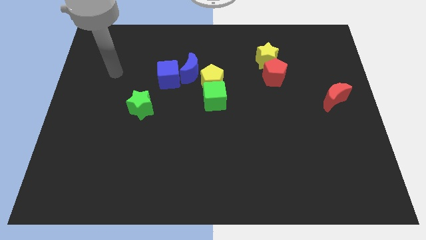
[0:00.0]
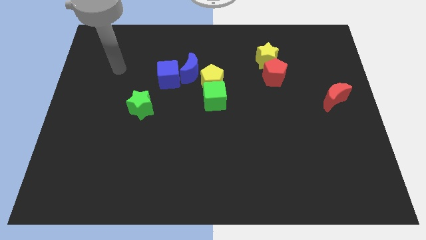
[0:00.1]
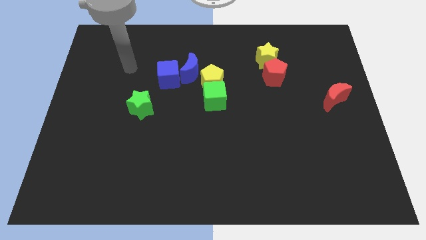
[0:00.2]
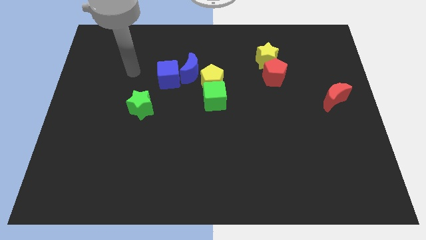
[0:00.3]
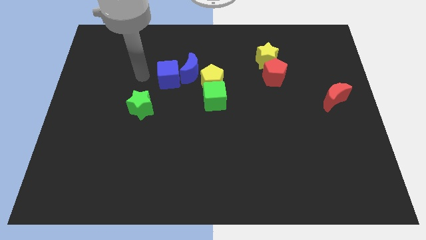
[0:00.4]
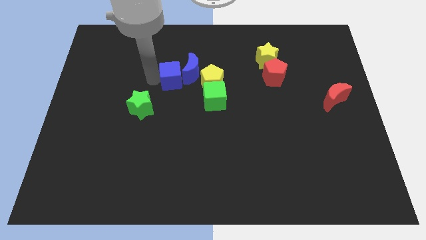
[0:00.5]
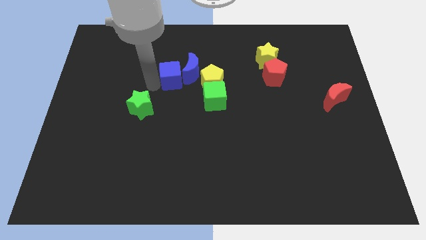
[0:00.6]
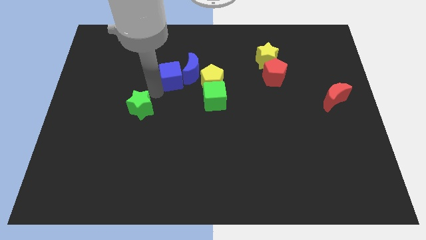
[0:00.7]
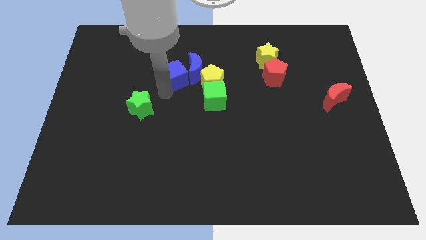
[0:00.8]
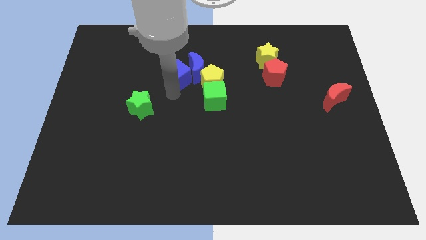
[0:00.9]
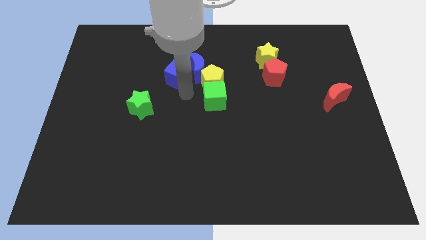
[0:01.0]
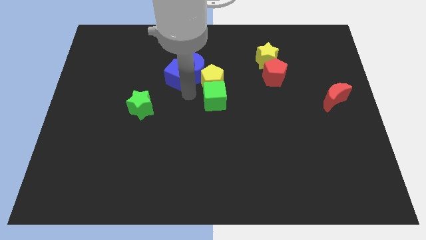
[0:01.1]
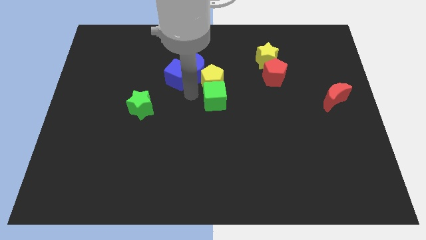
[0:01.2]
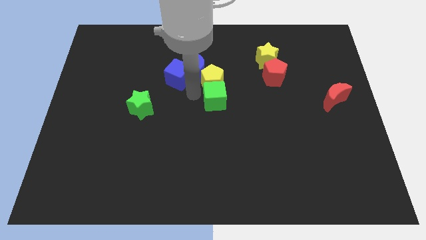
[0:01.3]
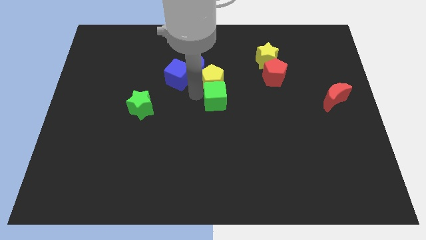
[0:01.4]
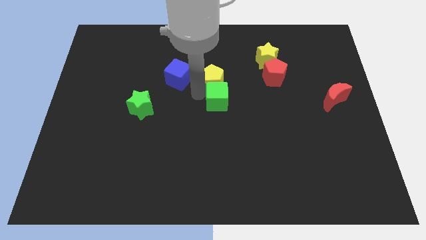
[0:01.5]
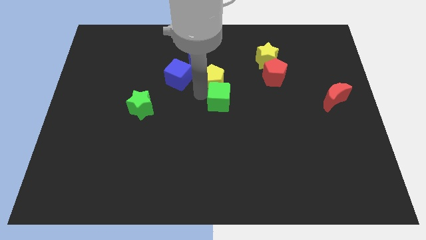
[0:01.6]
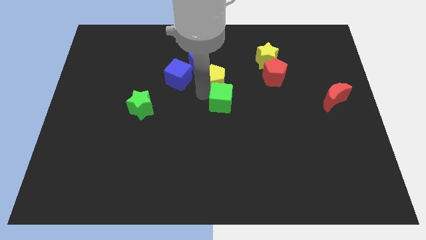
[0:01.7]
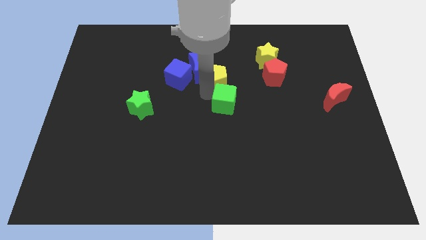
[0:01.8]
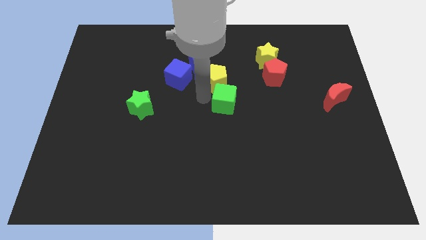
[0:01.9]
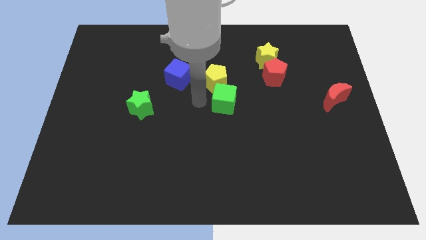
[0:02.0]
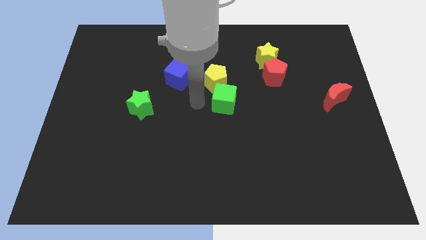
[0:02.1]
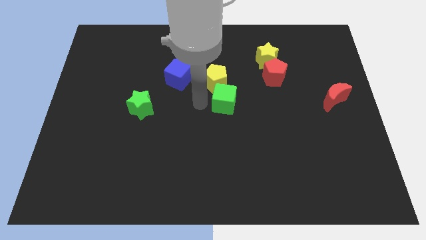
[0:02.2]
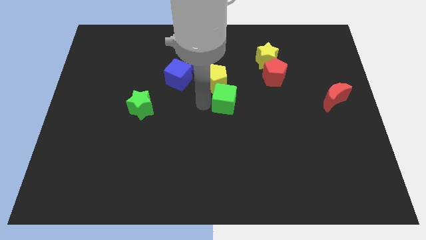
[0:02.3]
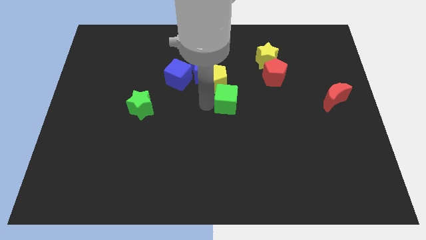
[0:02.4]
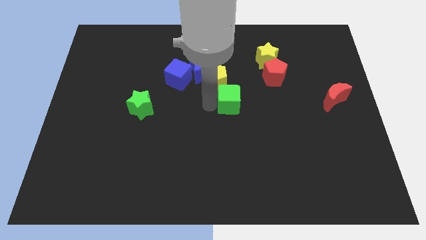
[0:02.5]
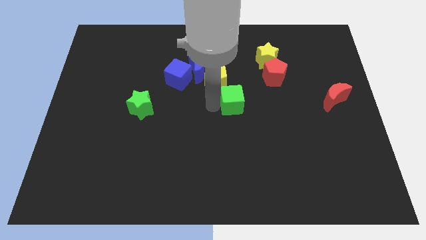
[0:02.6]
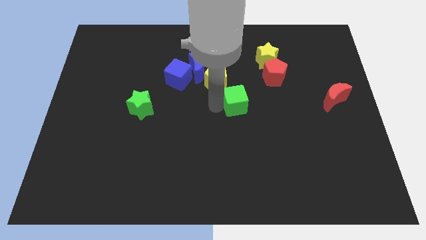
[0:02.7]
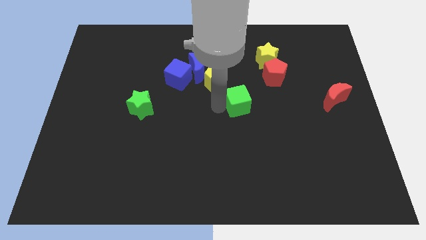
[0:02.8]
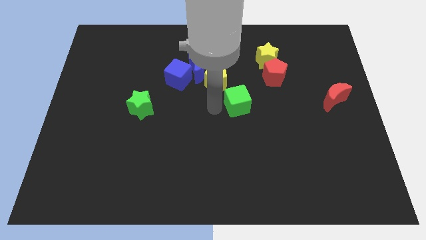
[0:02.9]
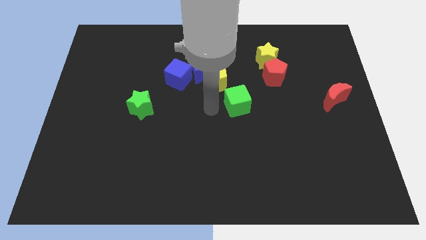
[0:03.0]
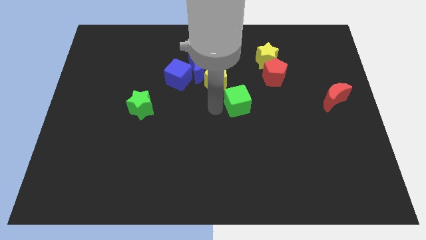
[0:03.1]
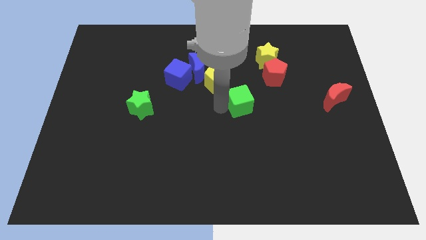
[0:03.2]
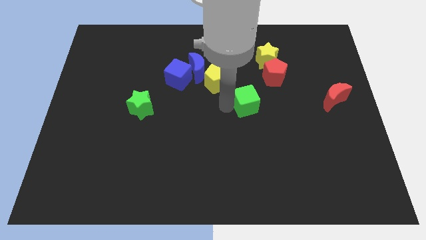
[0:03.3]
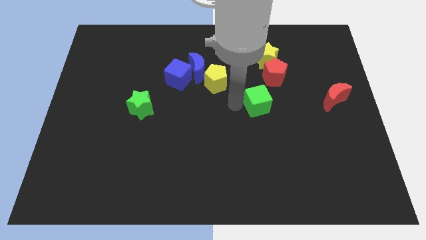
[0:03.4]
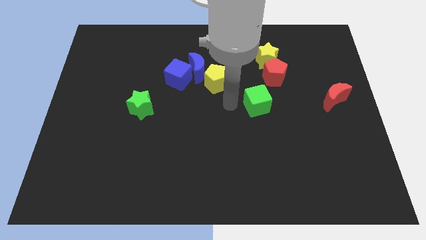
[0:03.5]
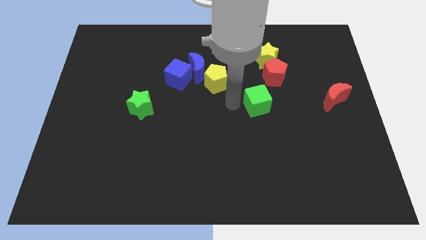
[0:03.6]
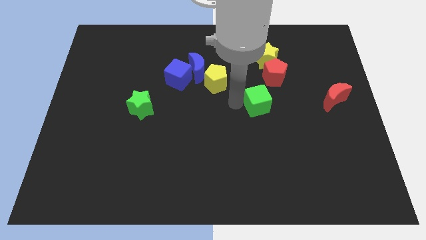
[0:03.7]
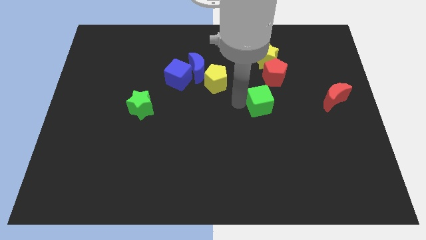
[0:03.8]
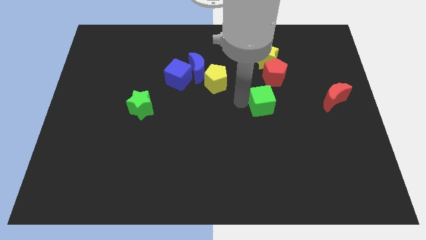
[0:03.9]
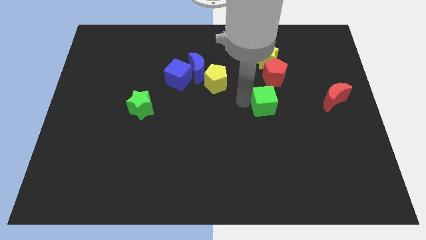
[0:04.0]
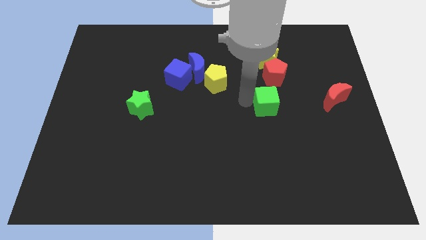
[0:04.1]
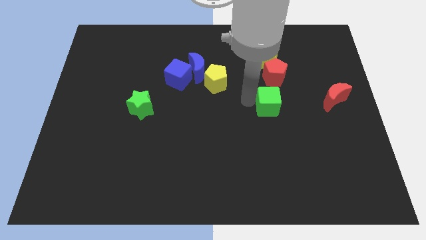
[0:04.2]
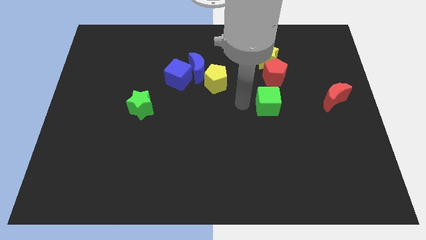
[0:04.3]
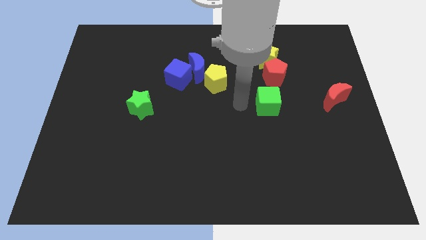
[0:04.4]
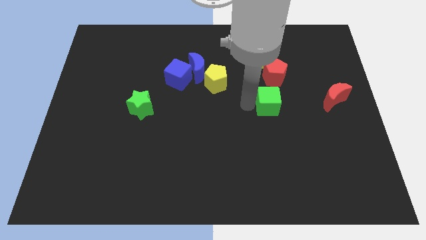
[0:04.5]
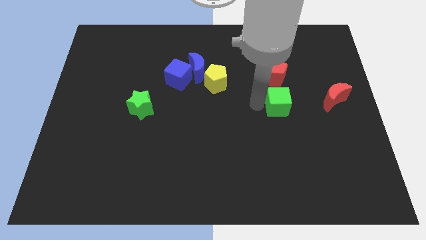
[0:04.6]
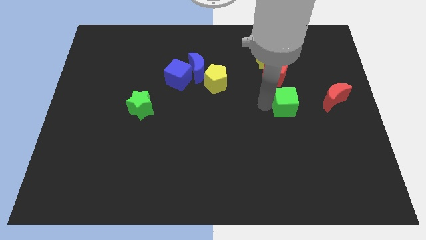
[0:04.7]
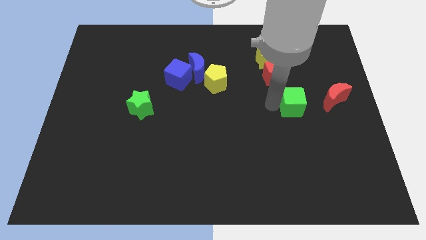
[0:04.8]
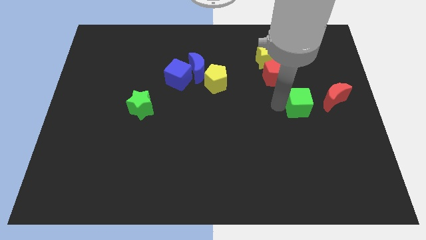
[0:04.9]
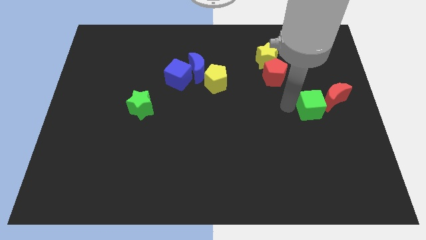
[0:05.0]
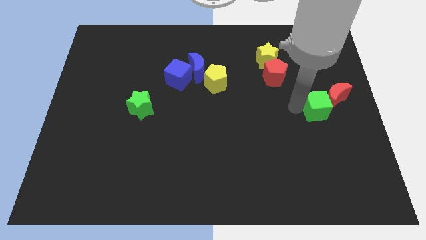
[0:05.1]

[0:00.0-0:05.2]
push the green cube towards the red moon

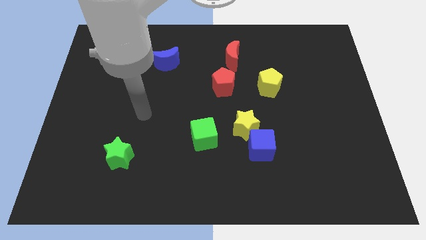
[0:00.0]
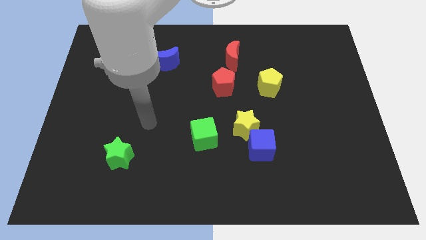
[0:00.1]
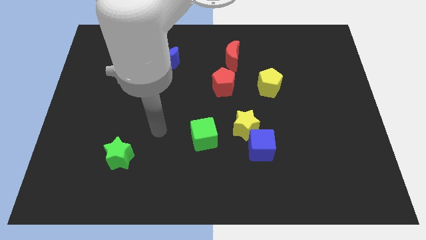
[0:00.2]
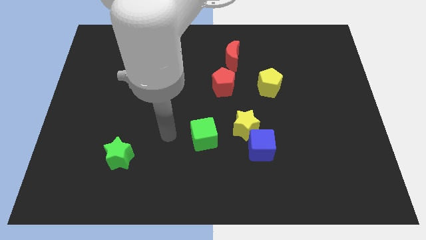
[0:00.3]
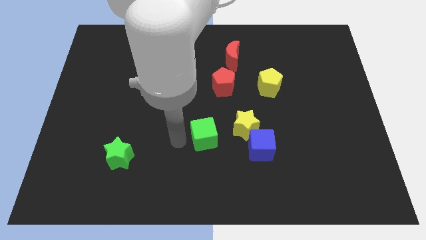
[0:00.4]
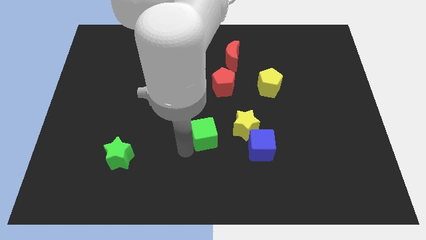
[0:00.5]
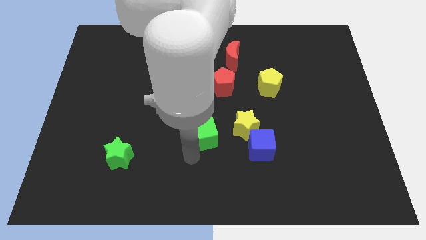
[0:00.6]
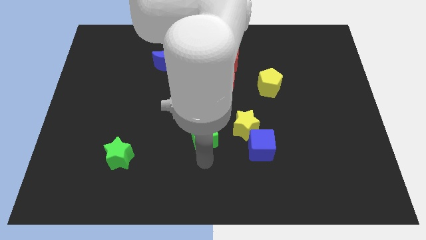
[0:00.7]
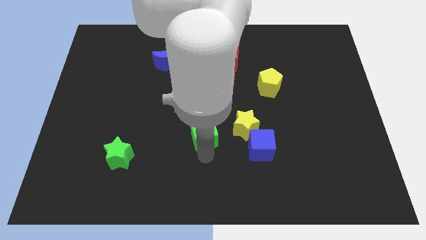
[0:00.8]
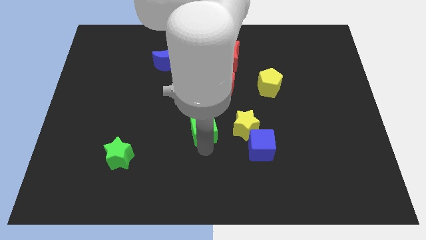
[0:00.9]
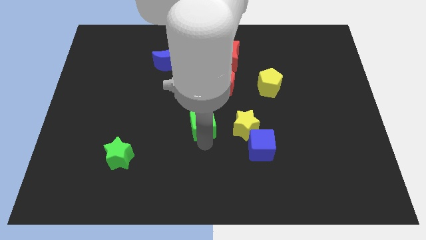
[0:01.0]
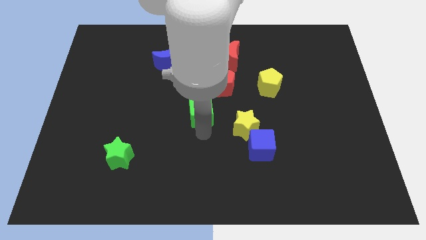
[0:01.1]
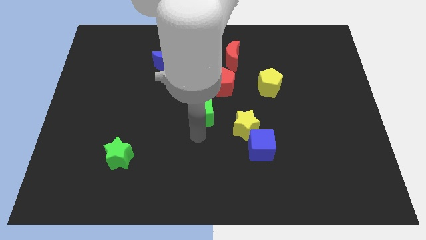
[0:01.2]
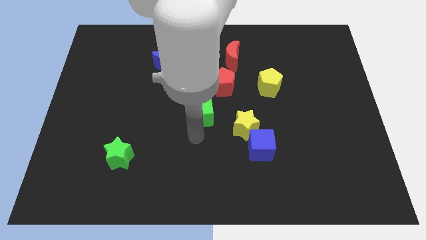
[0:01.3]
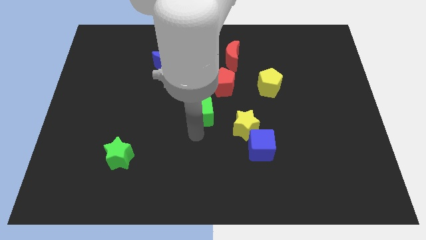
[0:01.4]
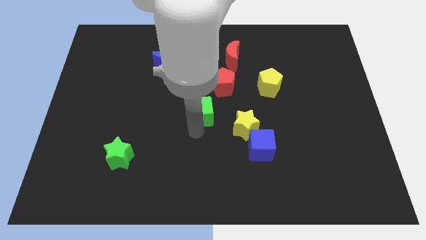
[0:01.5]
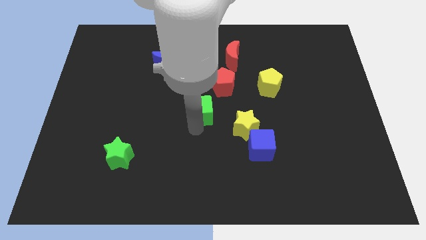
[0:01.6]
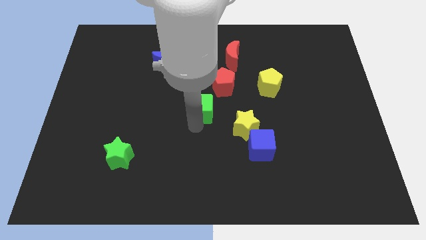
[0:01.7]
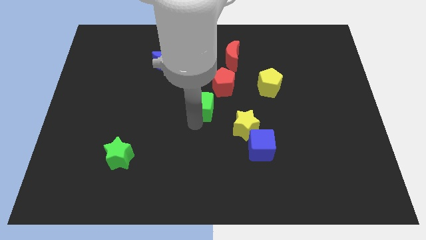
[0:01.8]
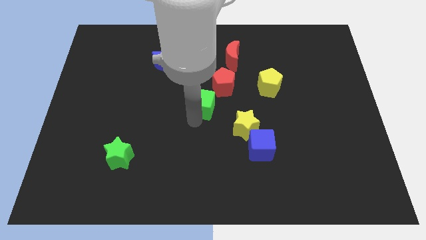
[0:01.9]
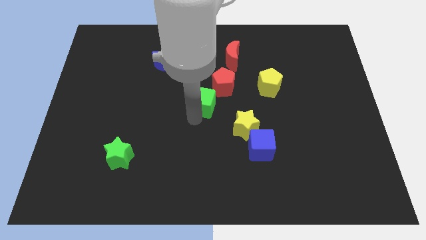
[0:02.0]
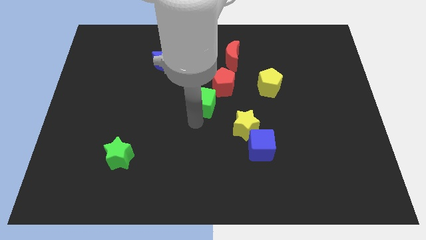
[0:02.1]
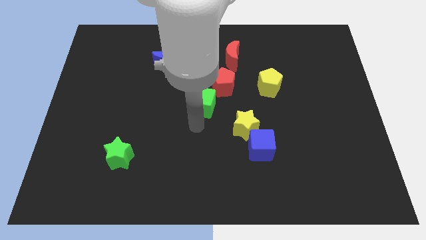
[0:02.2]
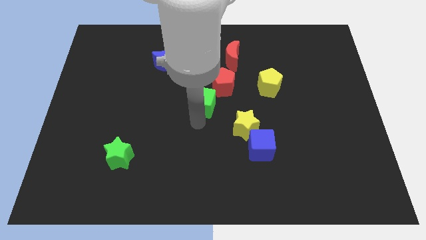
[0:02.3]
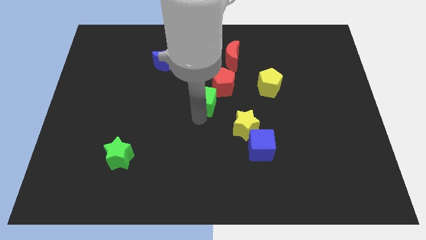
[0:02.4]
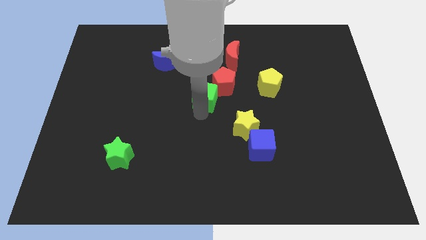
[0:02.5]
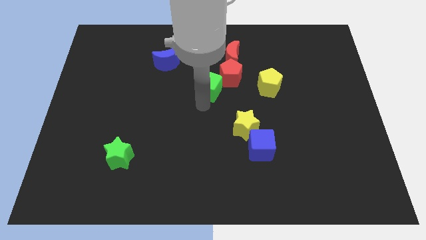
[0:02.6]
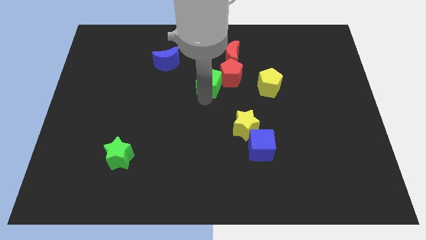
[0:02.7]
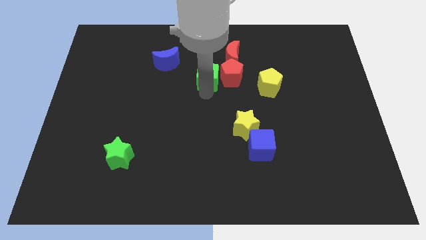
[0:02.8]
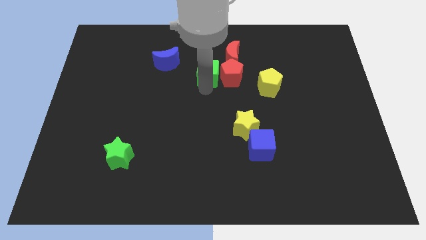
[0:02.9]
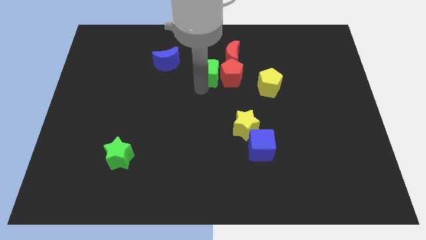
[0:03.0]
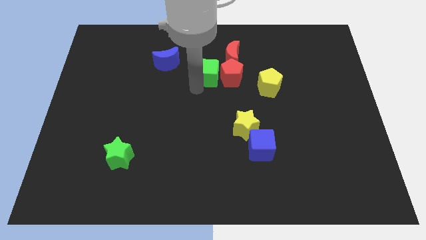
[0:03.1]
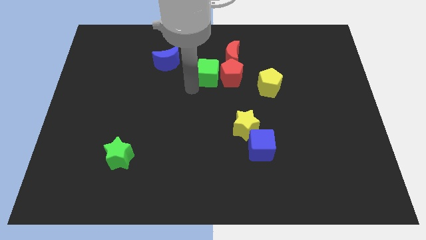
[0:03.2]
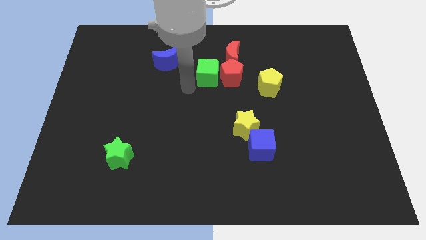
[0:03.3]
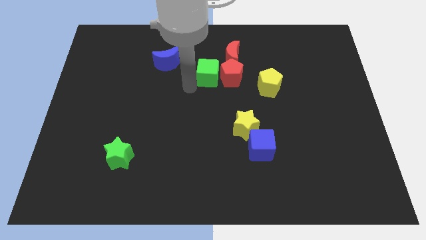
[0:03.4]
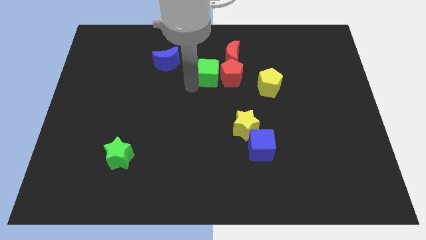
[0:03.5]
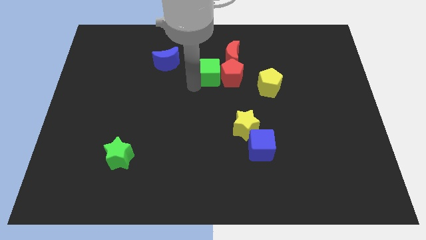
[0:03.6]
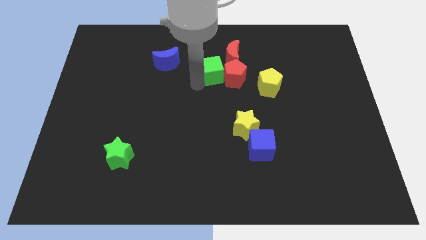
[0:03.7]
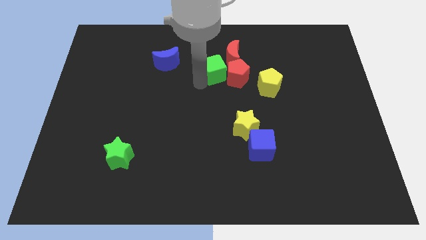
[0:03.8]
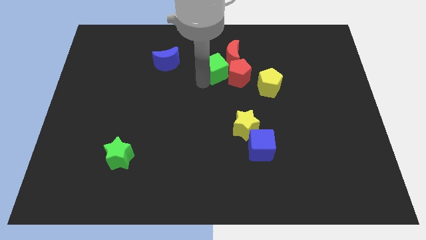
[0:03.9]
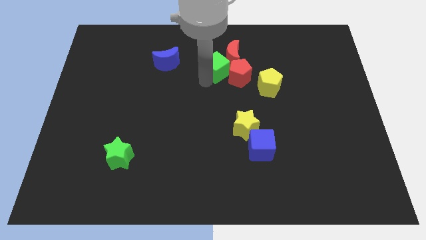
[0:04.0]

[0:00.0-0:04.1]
move the green cube towards the red moon
